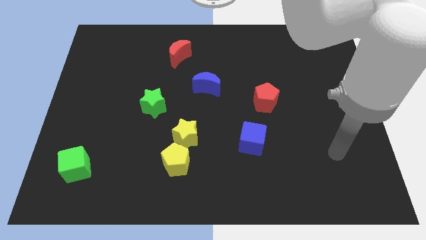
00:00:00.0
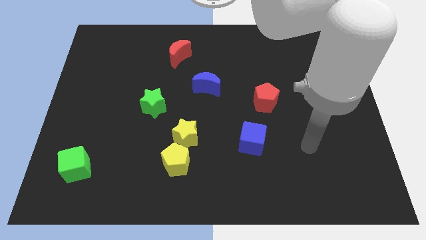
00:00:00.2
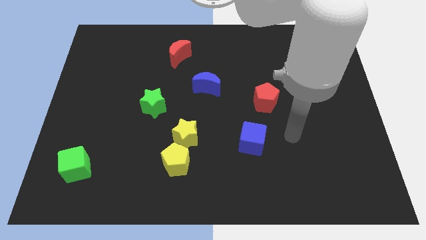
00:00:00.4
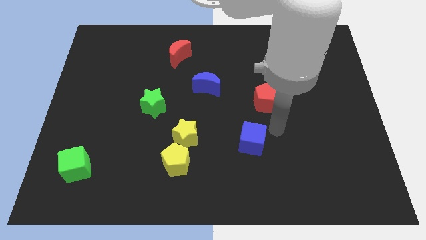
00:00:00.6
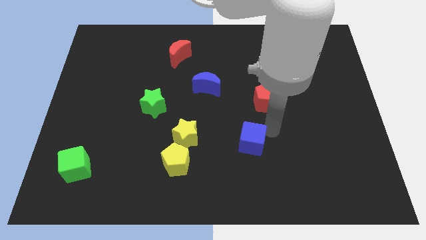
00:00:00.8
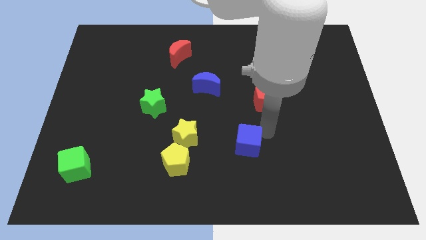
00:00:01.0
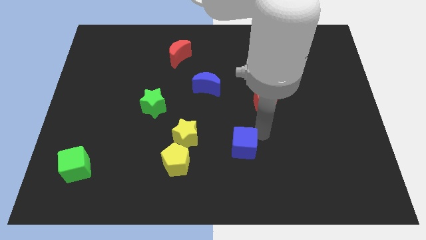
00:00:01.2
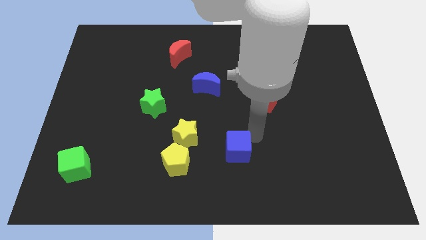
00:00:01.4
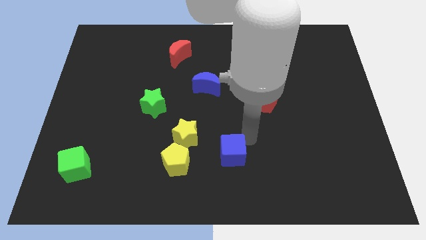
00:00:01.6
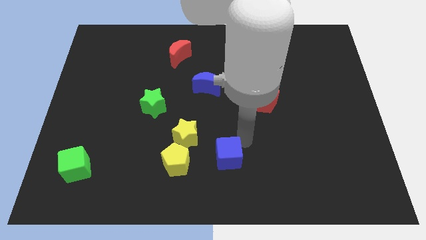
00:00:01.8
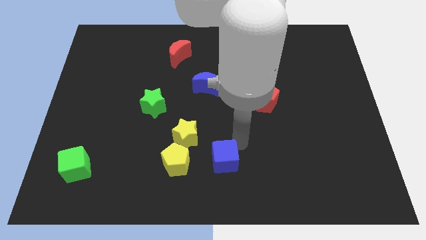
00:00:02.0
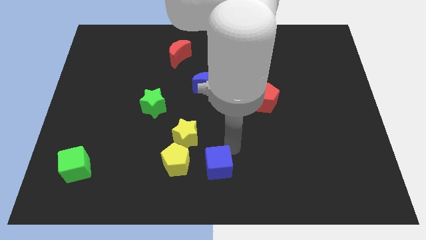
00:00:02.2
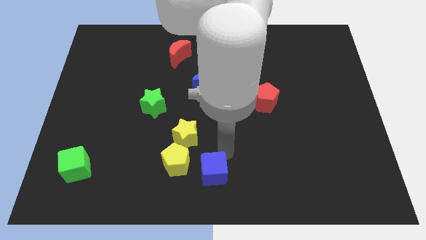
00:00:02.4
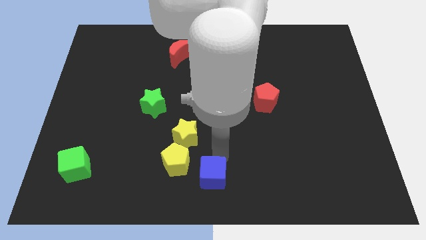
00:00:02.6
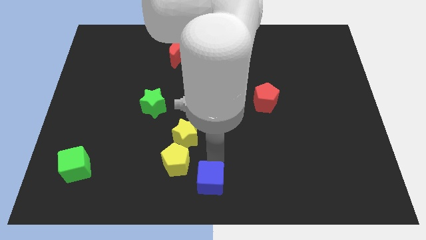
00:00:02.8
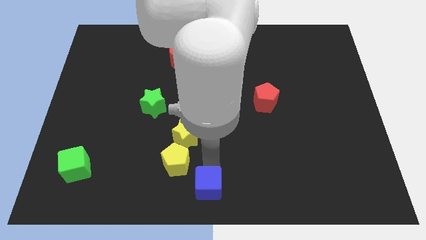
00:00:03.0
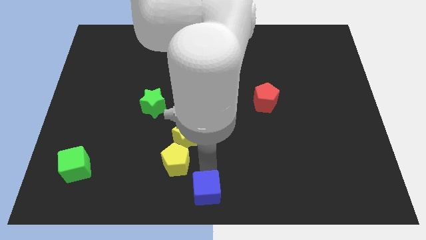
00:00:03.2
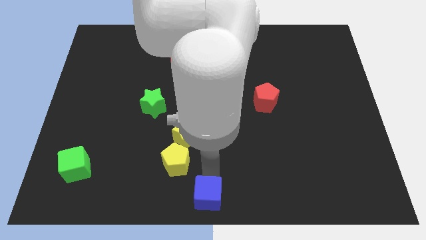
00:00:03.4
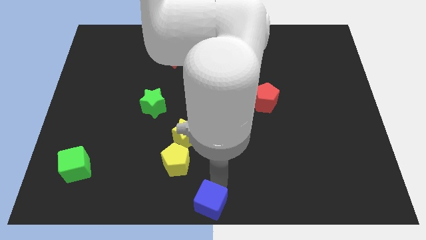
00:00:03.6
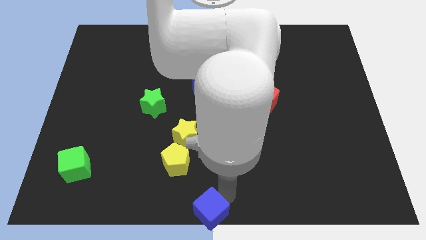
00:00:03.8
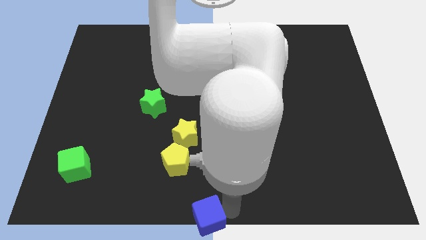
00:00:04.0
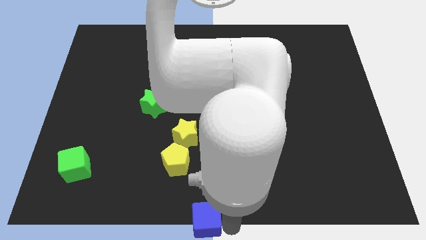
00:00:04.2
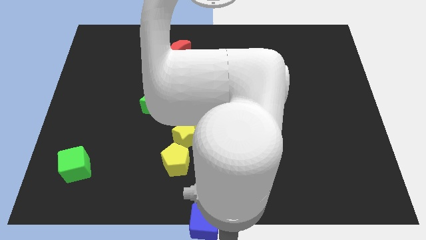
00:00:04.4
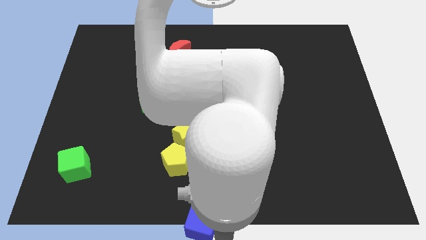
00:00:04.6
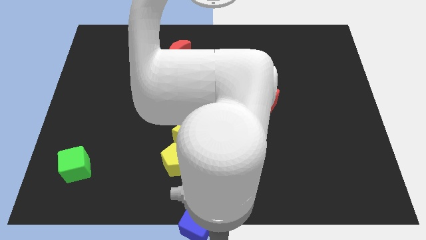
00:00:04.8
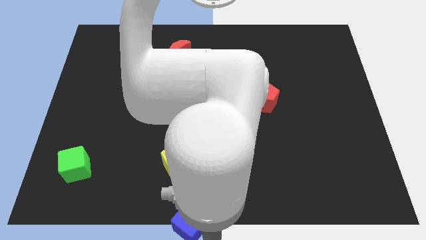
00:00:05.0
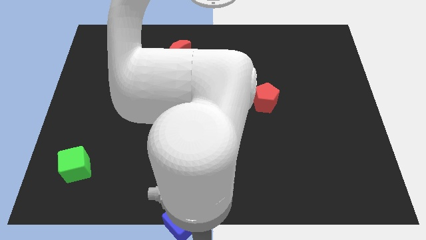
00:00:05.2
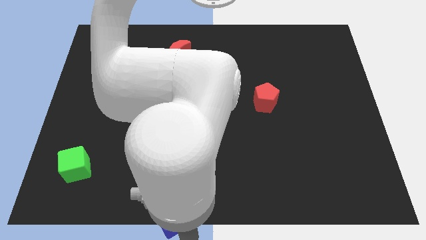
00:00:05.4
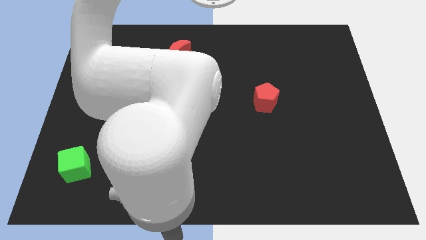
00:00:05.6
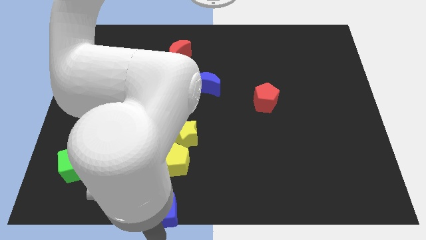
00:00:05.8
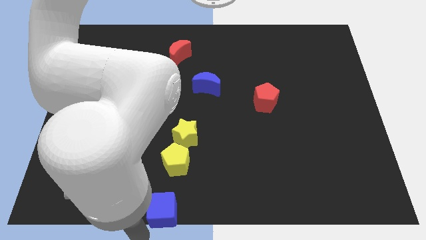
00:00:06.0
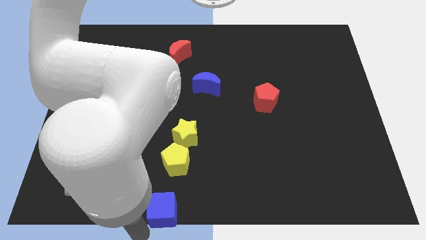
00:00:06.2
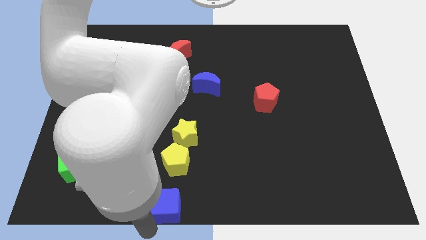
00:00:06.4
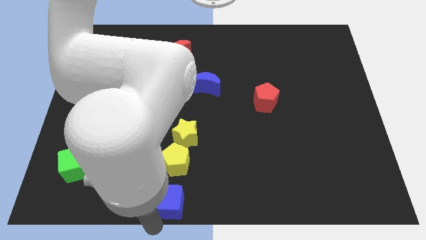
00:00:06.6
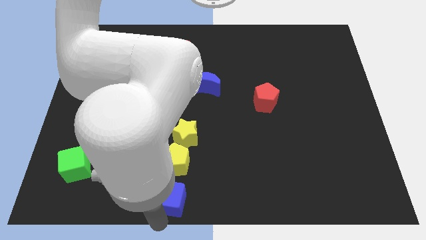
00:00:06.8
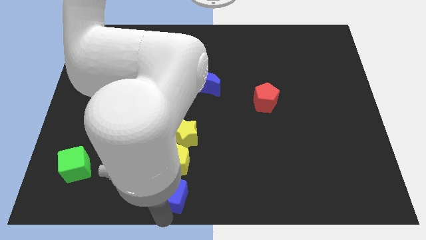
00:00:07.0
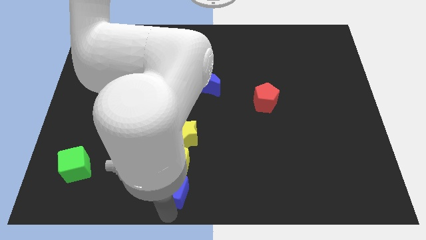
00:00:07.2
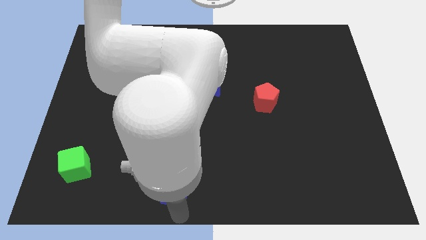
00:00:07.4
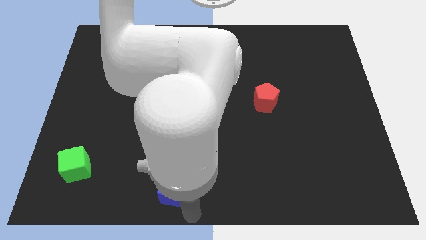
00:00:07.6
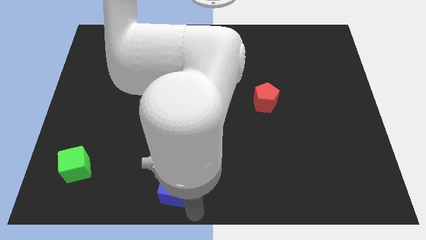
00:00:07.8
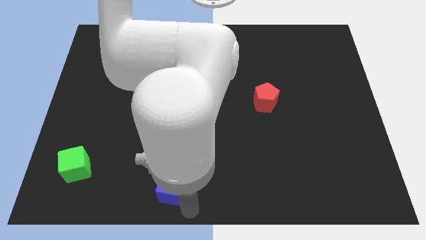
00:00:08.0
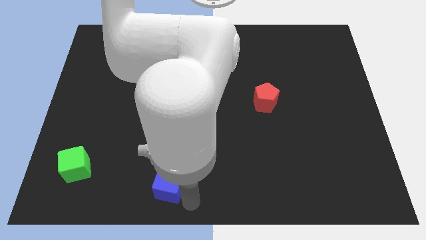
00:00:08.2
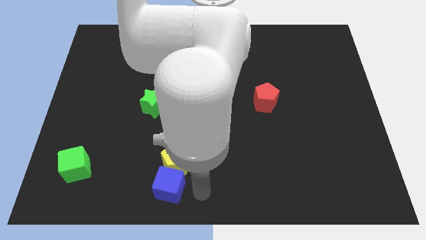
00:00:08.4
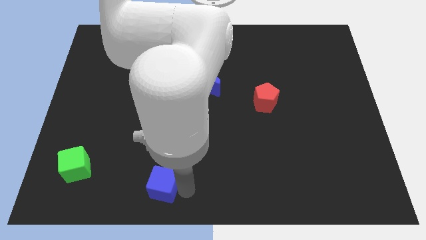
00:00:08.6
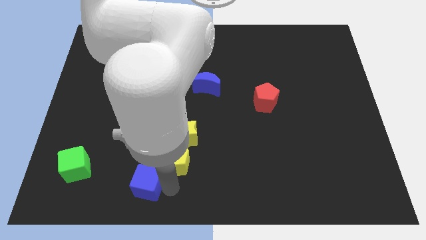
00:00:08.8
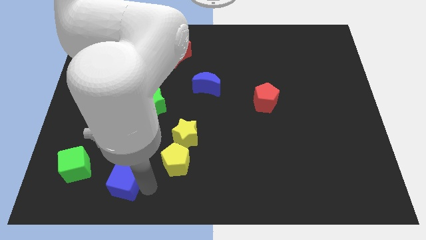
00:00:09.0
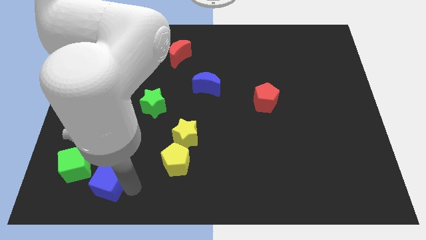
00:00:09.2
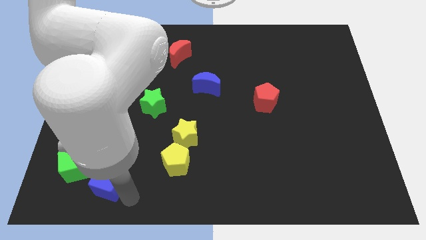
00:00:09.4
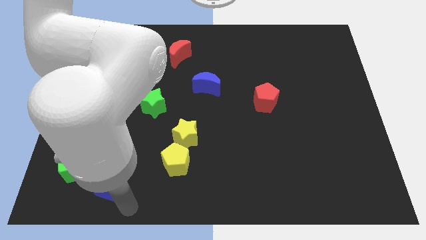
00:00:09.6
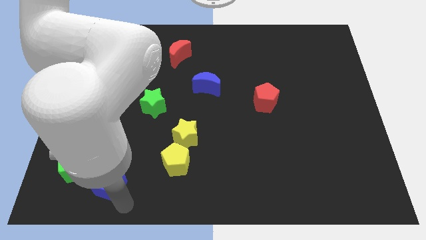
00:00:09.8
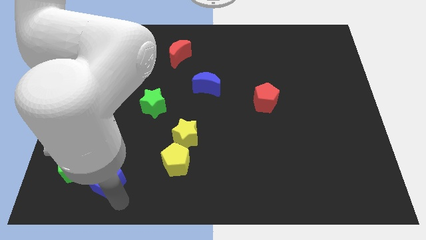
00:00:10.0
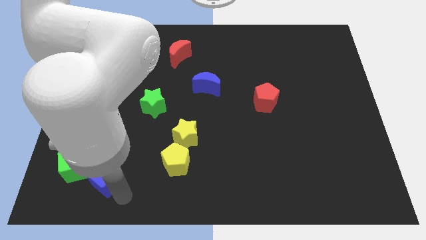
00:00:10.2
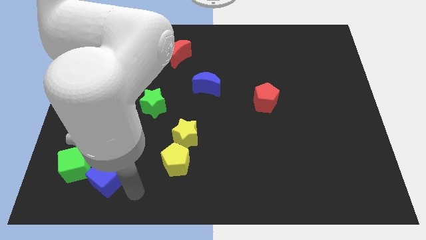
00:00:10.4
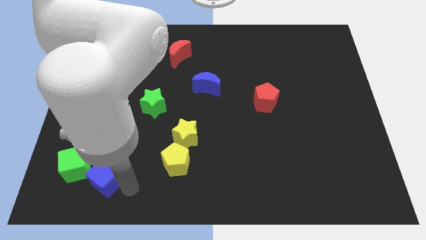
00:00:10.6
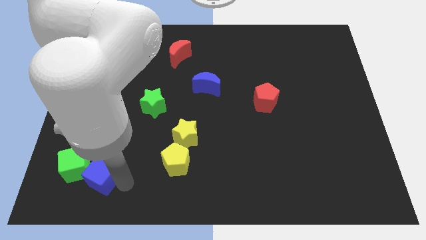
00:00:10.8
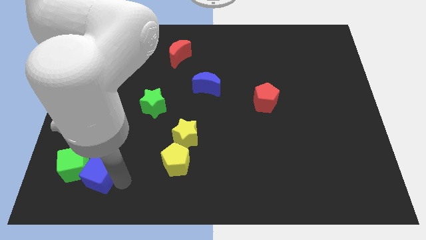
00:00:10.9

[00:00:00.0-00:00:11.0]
push the blue cube close to the green cube

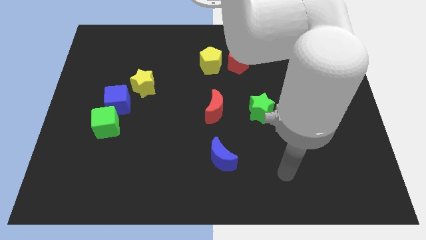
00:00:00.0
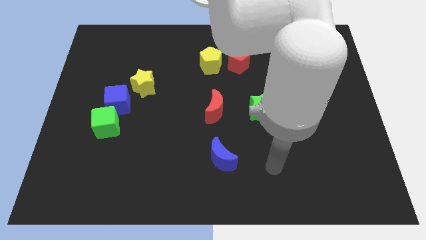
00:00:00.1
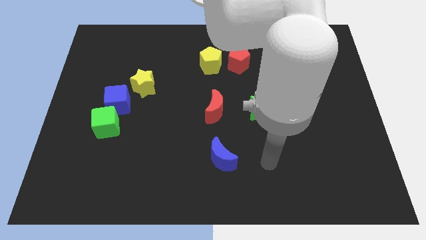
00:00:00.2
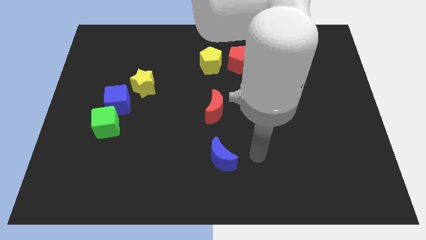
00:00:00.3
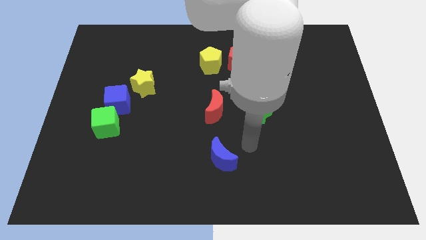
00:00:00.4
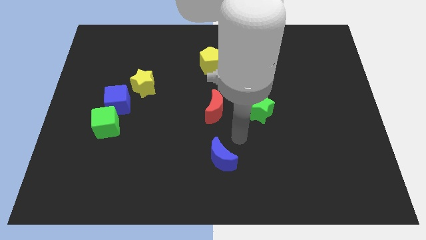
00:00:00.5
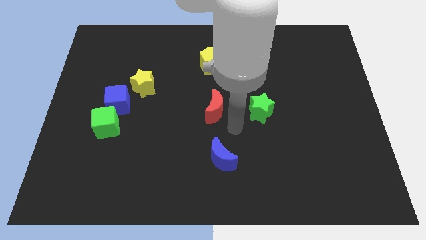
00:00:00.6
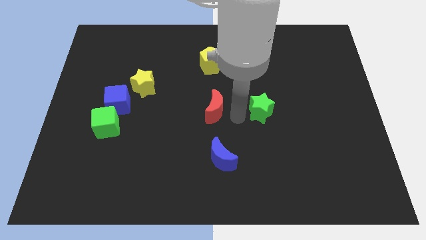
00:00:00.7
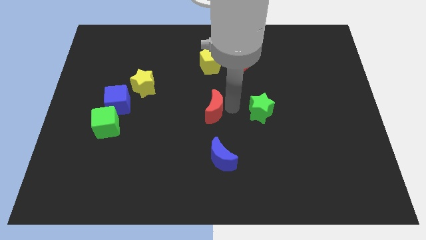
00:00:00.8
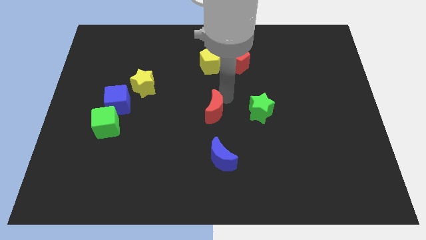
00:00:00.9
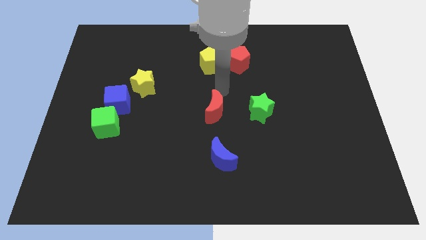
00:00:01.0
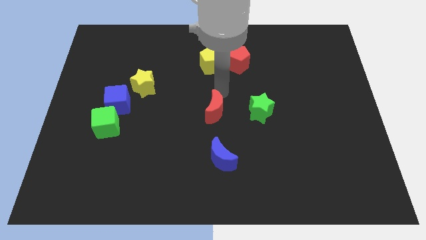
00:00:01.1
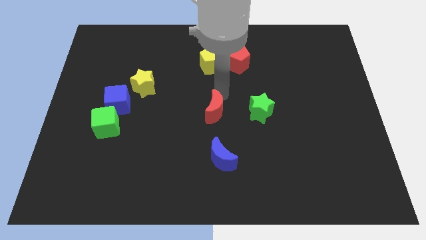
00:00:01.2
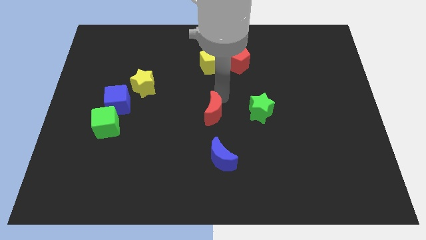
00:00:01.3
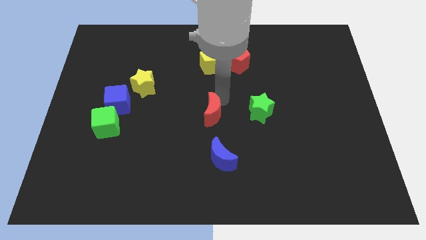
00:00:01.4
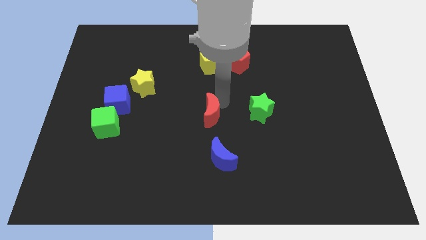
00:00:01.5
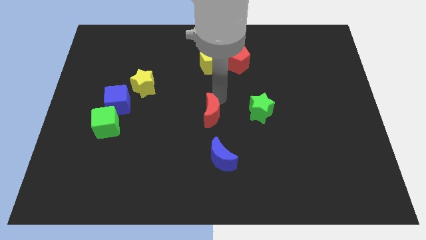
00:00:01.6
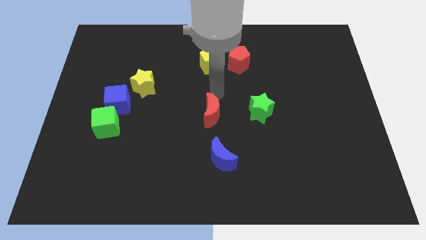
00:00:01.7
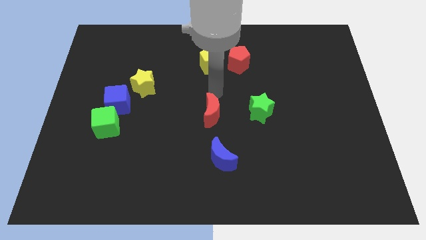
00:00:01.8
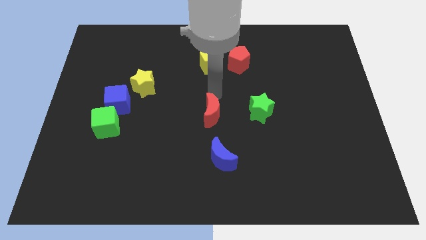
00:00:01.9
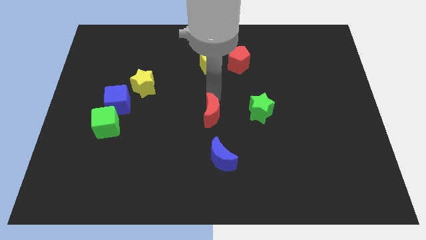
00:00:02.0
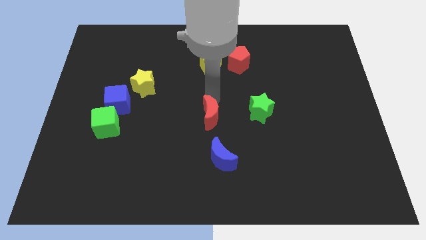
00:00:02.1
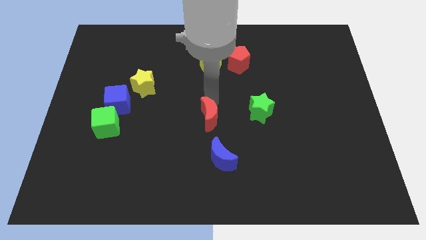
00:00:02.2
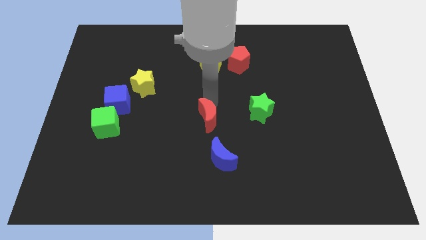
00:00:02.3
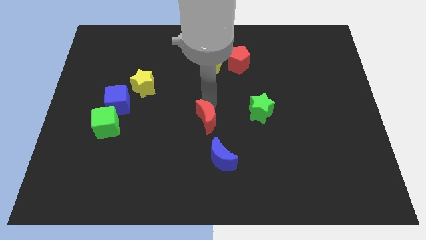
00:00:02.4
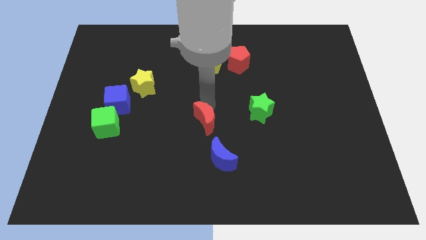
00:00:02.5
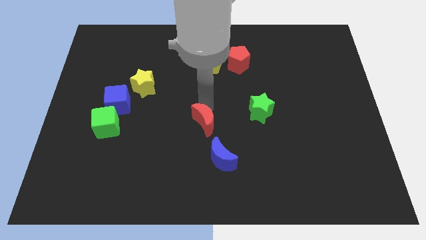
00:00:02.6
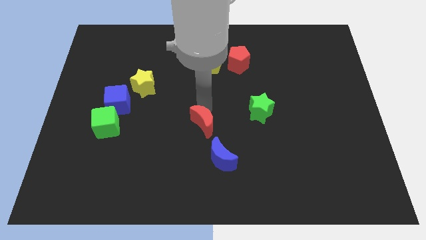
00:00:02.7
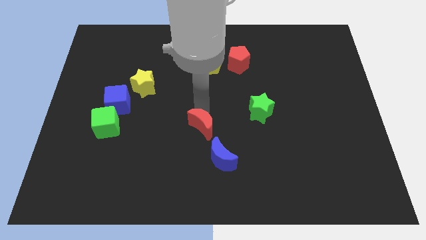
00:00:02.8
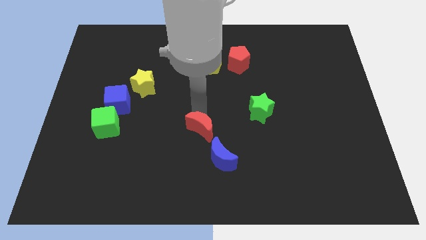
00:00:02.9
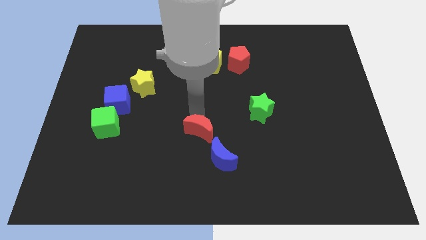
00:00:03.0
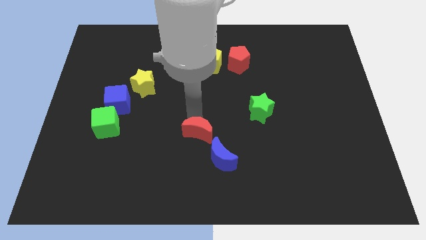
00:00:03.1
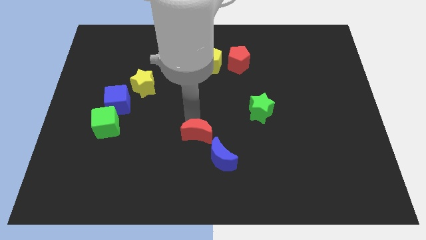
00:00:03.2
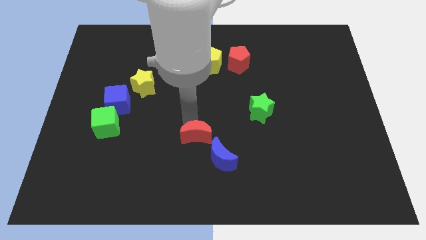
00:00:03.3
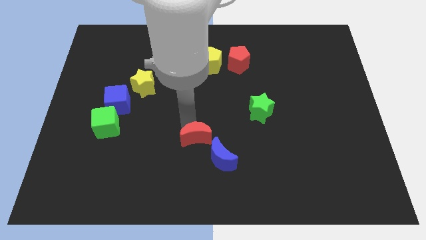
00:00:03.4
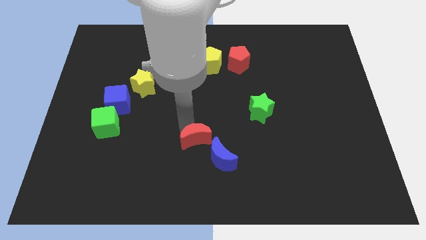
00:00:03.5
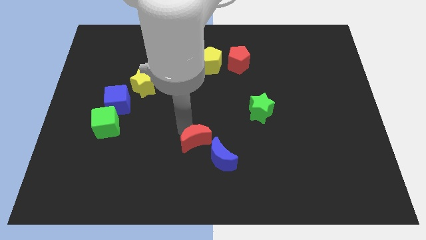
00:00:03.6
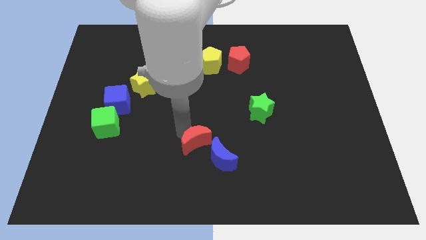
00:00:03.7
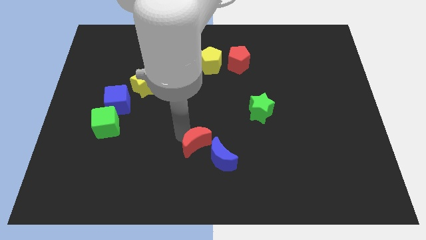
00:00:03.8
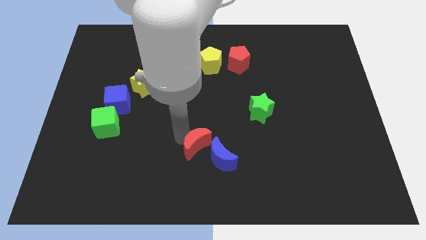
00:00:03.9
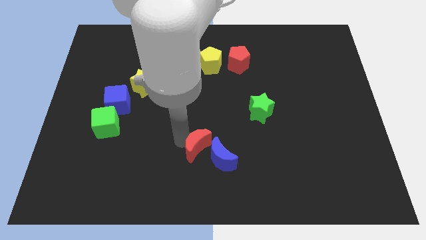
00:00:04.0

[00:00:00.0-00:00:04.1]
slide the red moon towards the blue moon
